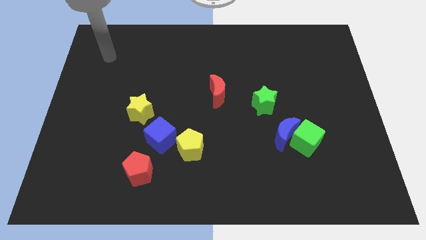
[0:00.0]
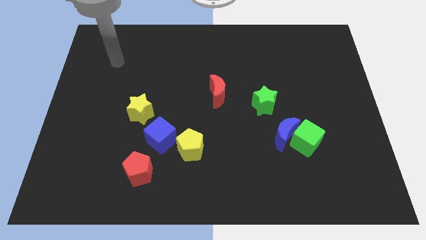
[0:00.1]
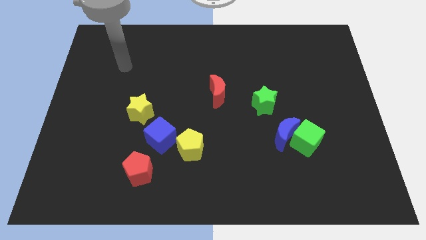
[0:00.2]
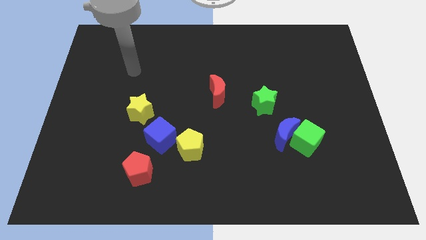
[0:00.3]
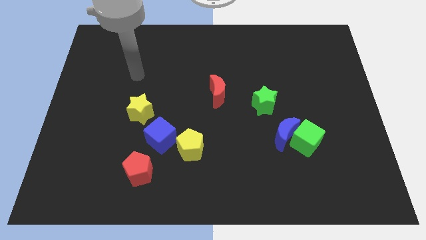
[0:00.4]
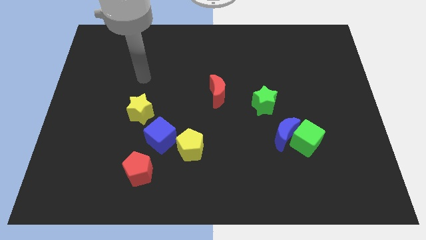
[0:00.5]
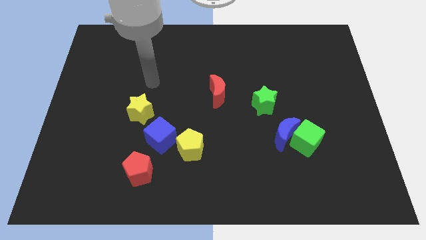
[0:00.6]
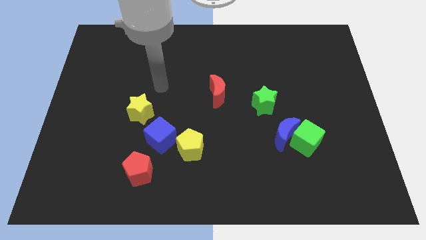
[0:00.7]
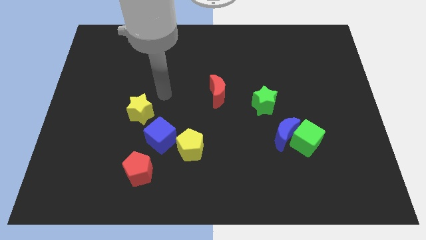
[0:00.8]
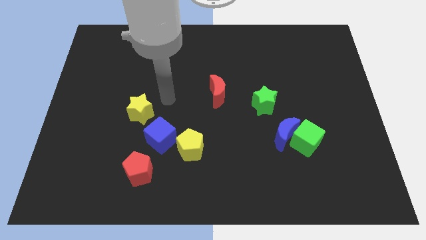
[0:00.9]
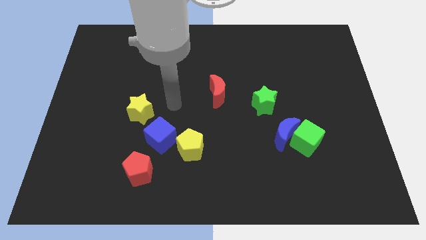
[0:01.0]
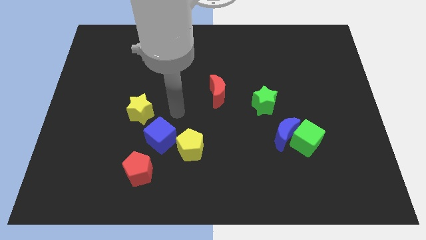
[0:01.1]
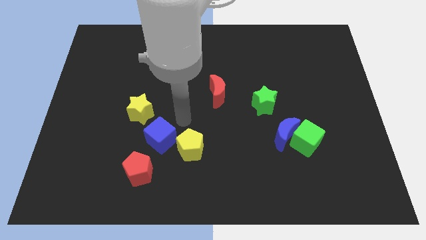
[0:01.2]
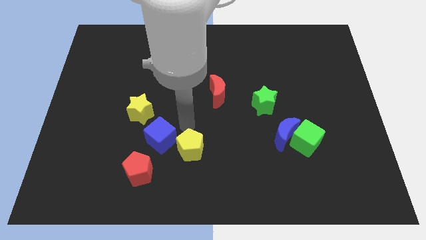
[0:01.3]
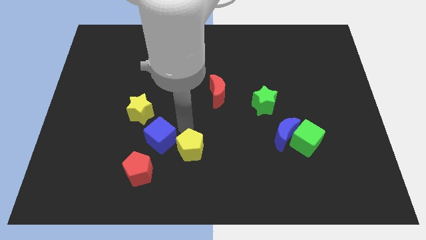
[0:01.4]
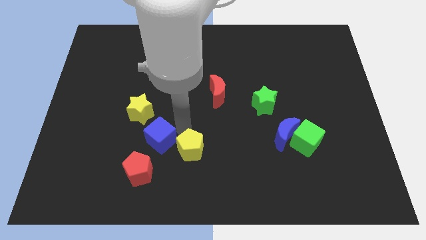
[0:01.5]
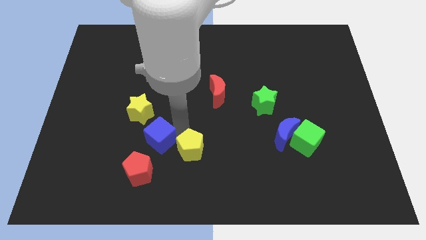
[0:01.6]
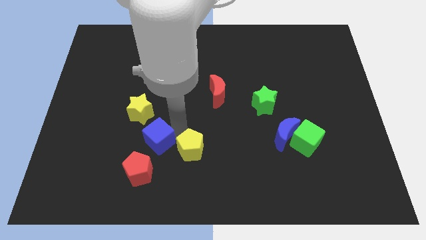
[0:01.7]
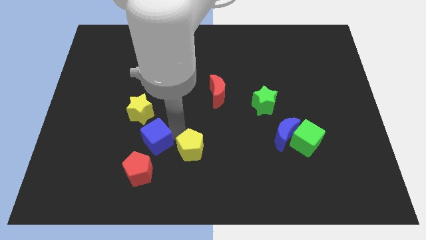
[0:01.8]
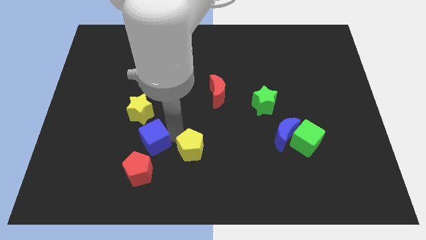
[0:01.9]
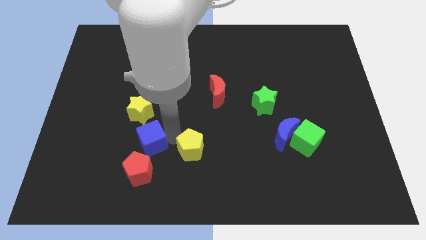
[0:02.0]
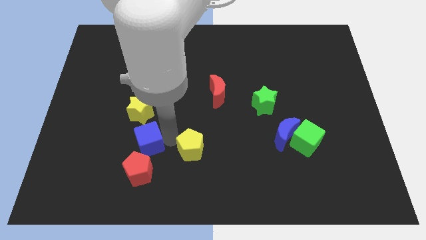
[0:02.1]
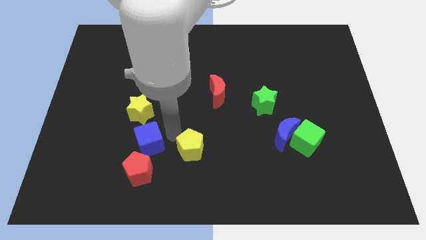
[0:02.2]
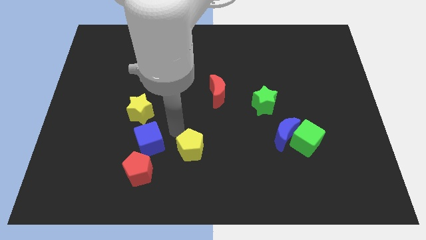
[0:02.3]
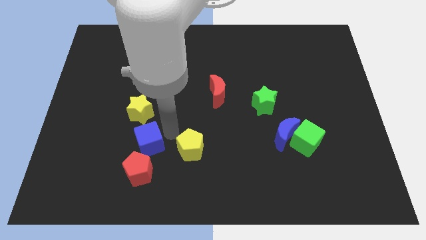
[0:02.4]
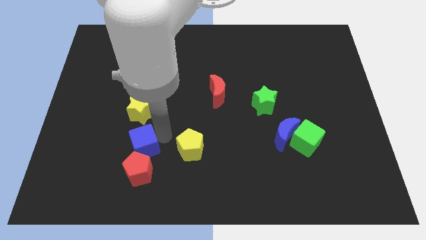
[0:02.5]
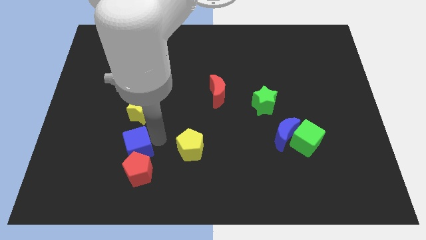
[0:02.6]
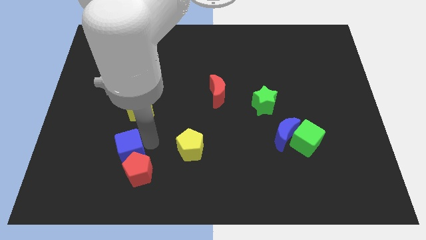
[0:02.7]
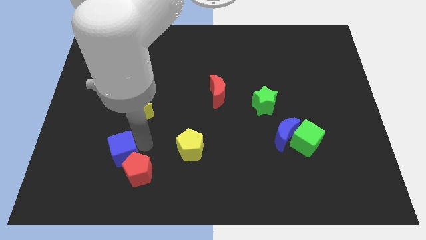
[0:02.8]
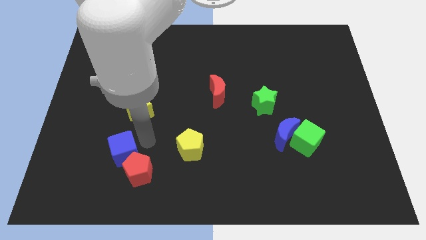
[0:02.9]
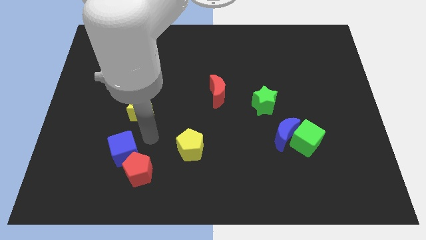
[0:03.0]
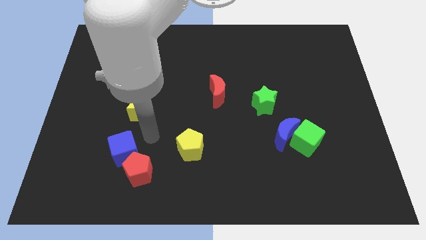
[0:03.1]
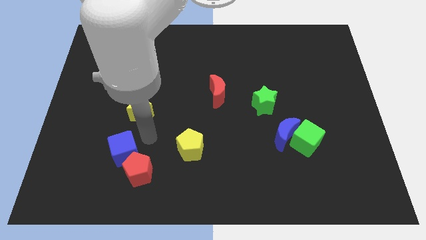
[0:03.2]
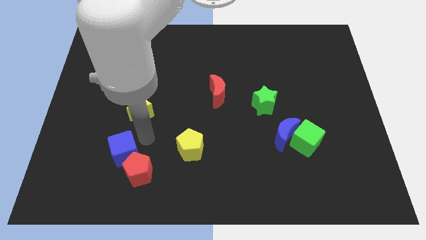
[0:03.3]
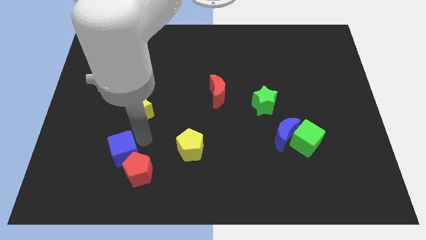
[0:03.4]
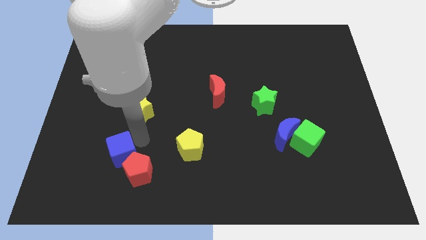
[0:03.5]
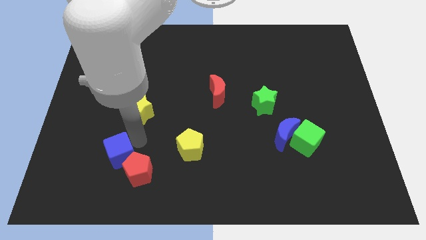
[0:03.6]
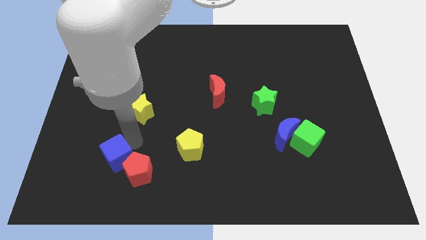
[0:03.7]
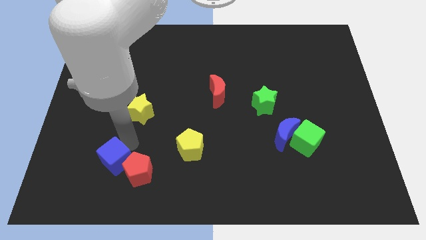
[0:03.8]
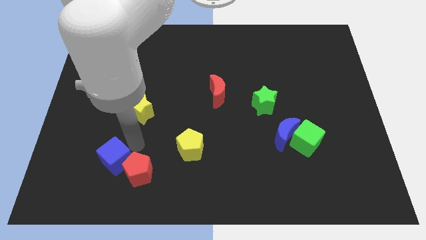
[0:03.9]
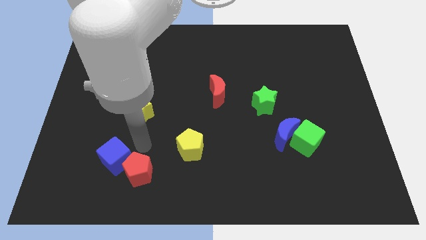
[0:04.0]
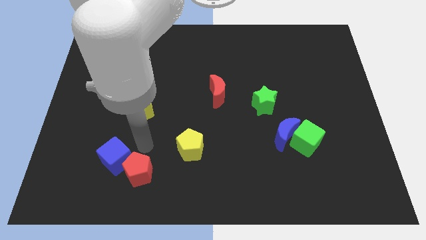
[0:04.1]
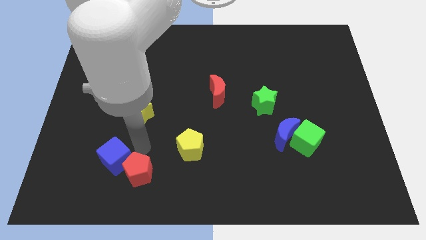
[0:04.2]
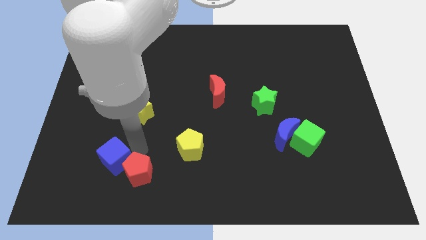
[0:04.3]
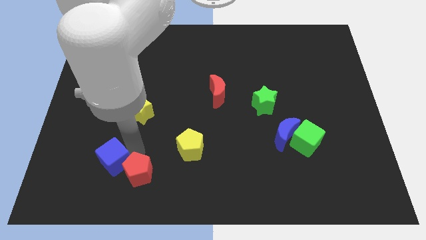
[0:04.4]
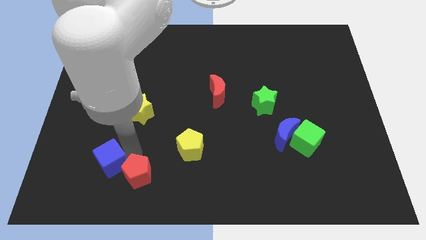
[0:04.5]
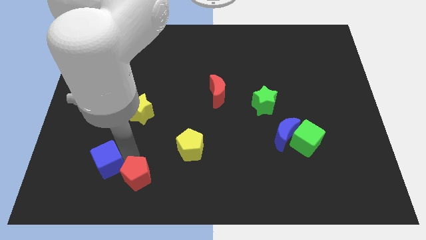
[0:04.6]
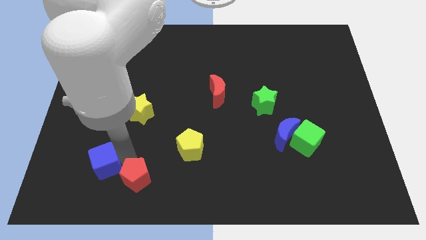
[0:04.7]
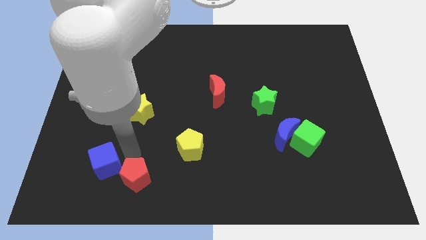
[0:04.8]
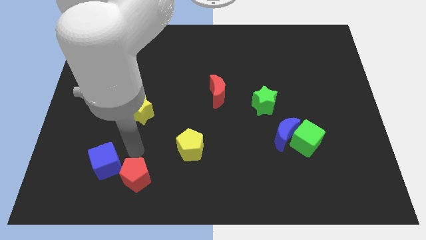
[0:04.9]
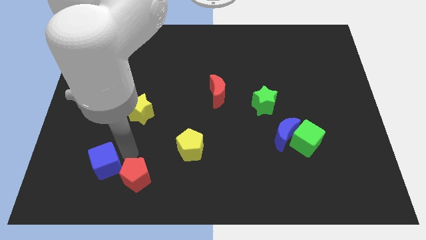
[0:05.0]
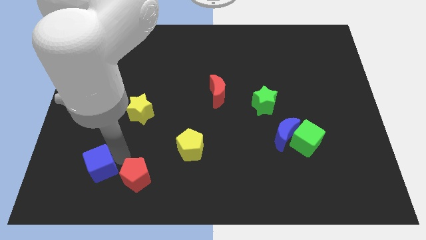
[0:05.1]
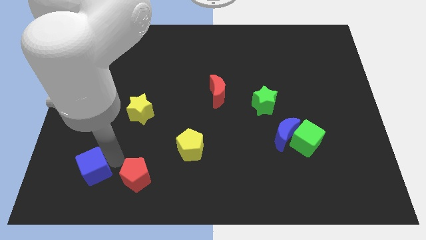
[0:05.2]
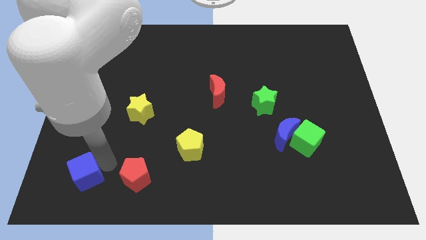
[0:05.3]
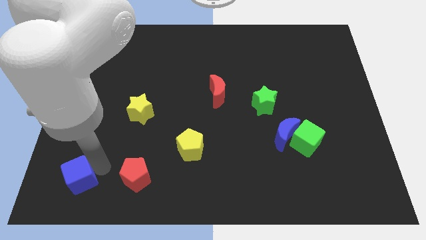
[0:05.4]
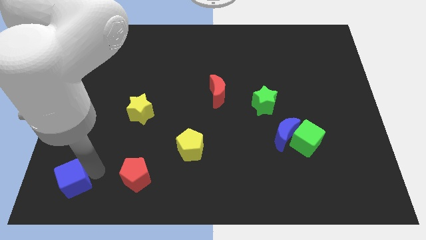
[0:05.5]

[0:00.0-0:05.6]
put the blue cube to the bottom left

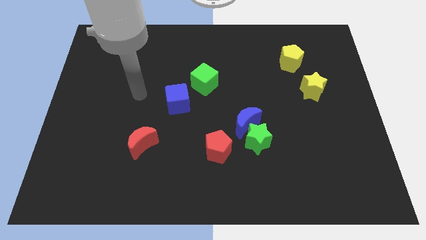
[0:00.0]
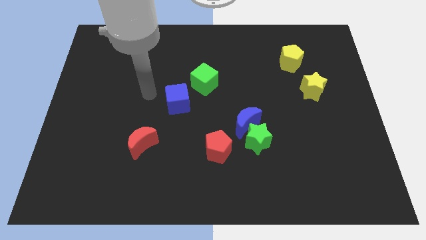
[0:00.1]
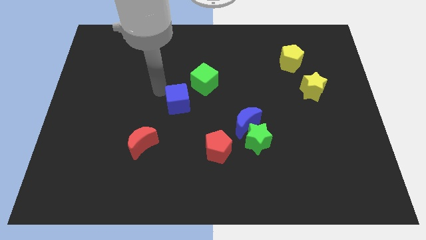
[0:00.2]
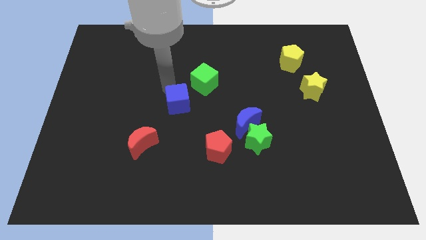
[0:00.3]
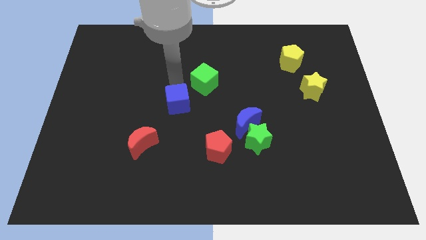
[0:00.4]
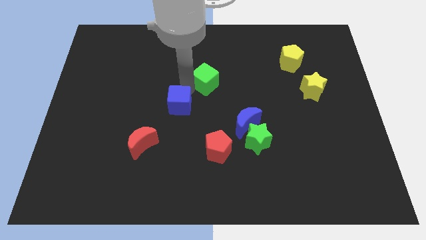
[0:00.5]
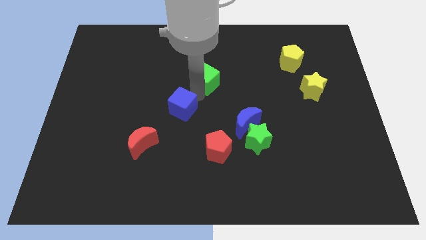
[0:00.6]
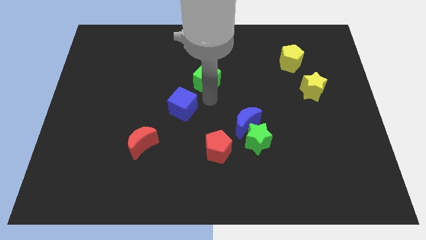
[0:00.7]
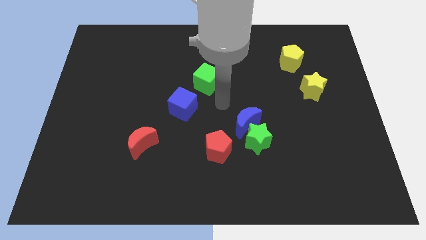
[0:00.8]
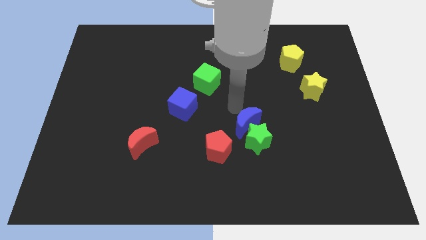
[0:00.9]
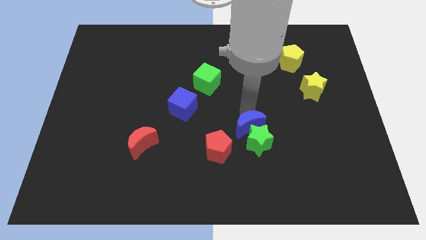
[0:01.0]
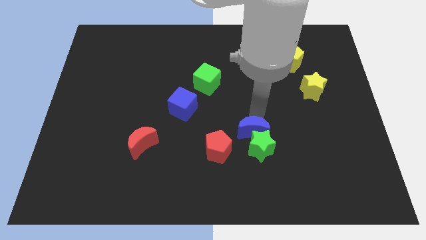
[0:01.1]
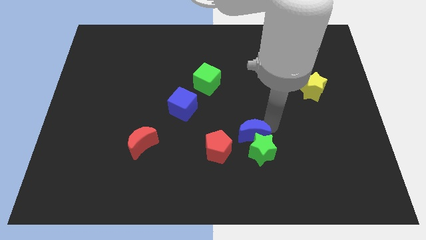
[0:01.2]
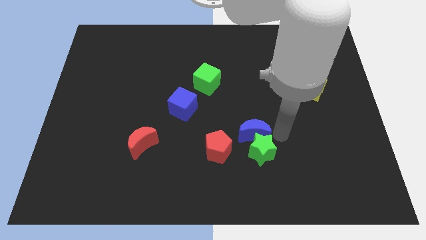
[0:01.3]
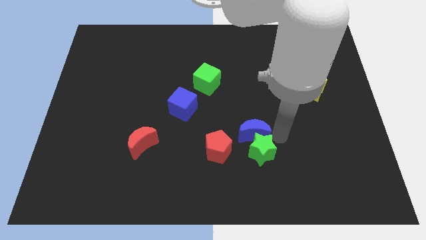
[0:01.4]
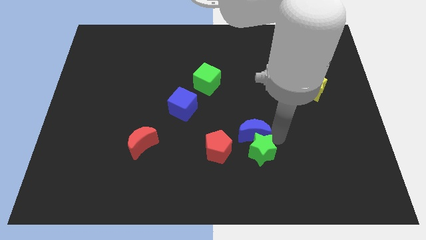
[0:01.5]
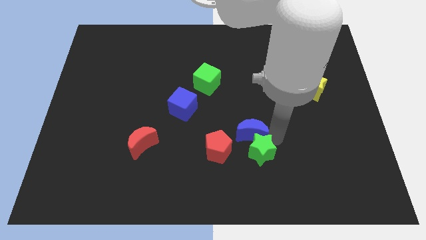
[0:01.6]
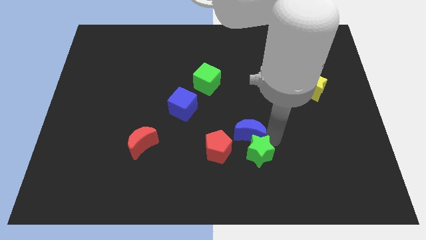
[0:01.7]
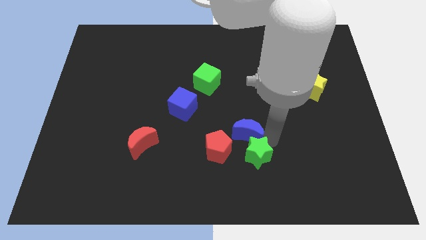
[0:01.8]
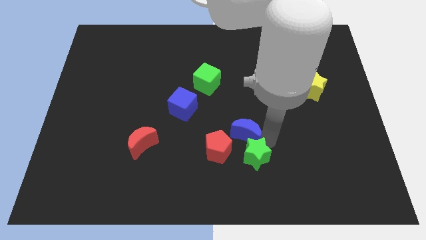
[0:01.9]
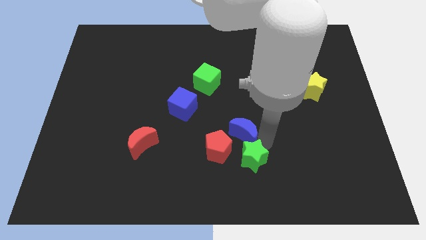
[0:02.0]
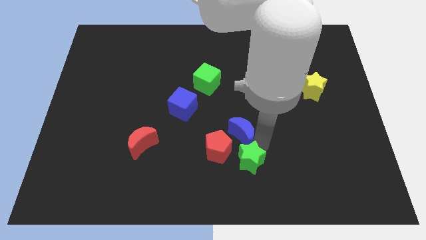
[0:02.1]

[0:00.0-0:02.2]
slide the green star to the bottom side
